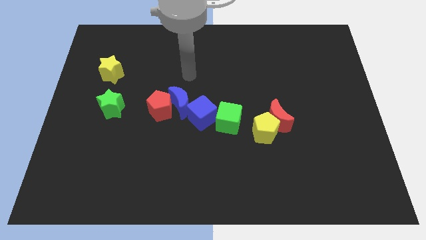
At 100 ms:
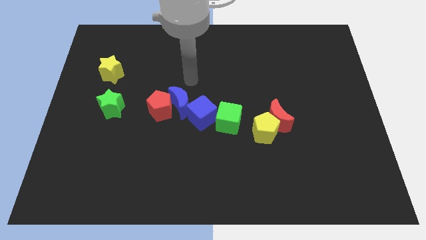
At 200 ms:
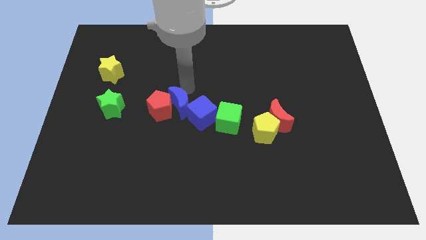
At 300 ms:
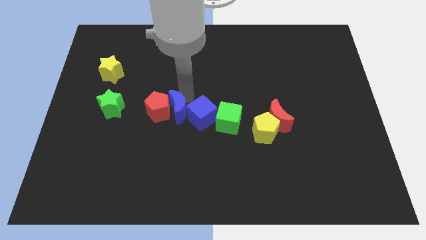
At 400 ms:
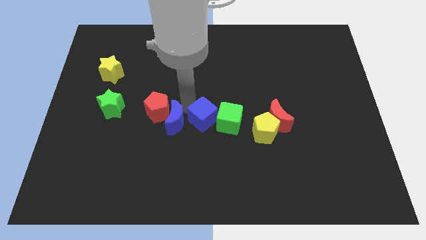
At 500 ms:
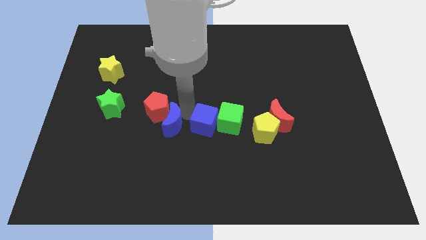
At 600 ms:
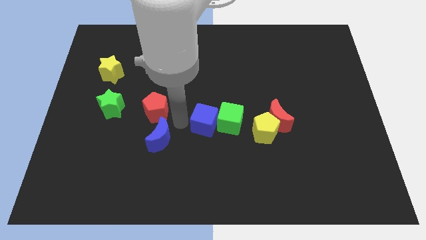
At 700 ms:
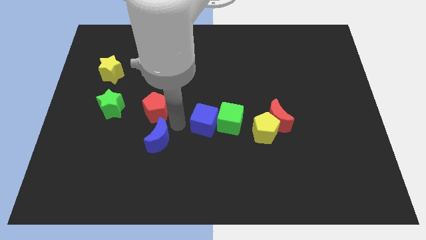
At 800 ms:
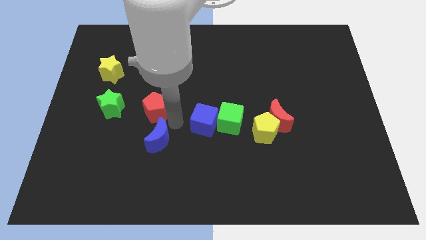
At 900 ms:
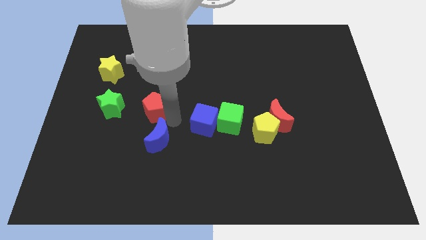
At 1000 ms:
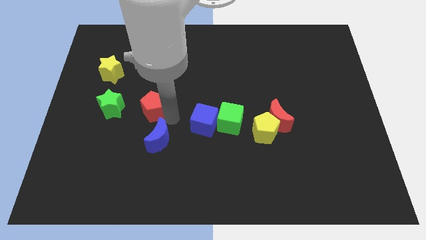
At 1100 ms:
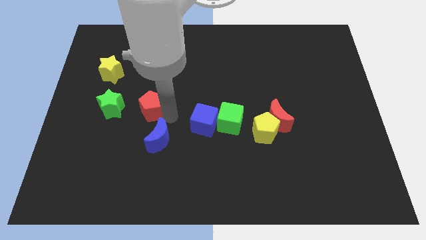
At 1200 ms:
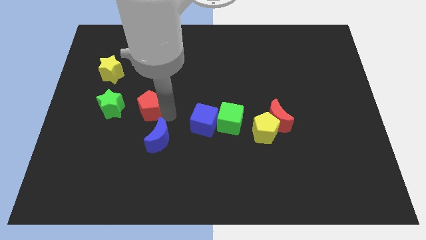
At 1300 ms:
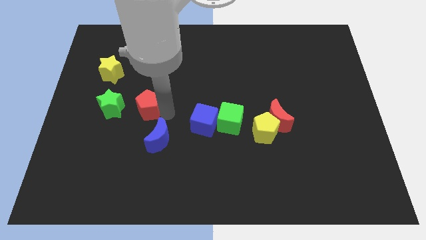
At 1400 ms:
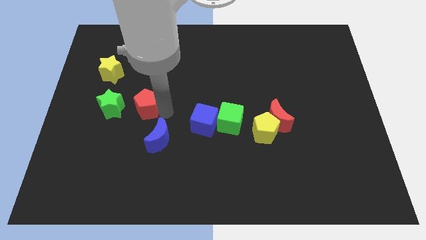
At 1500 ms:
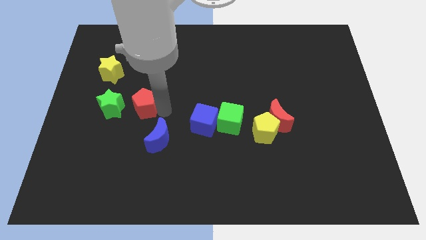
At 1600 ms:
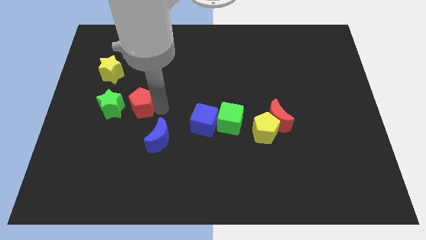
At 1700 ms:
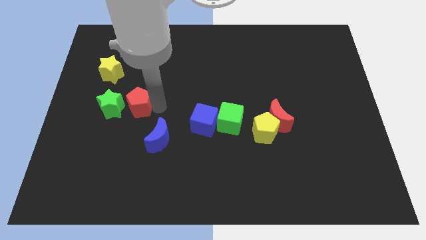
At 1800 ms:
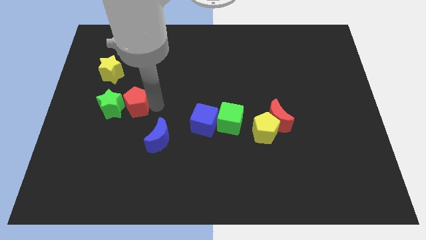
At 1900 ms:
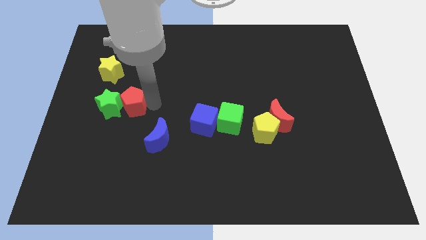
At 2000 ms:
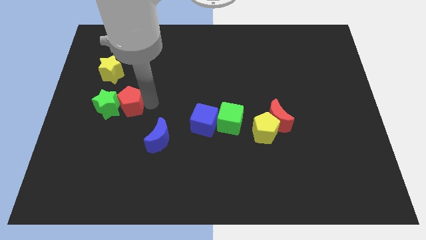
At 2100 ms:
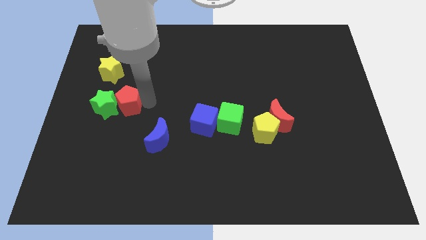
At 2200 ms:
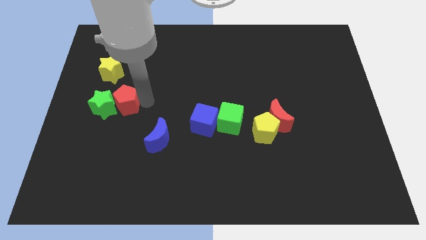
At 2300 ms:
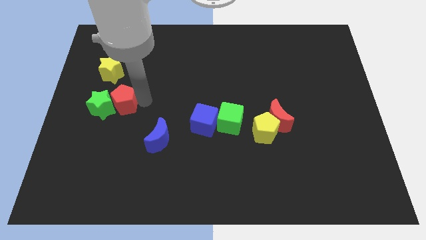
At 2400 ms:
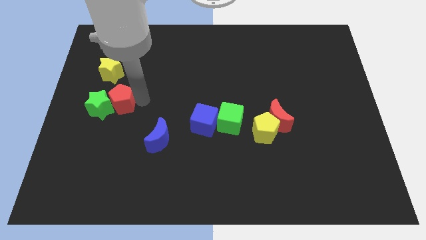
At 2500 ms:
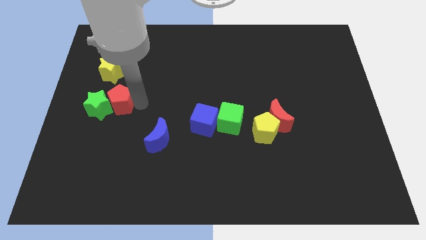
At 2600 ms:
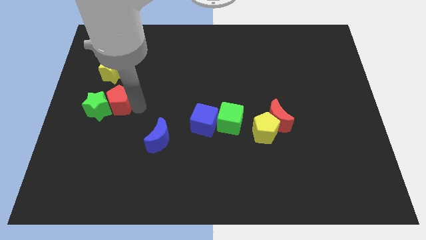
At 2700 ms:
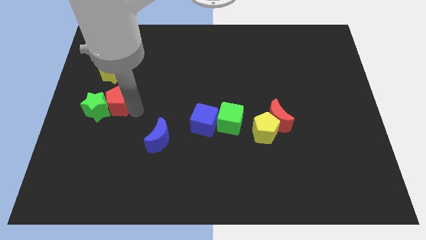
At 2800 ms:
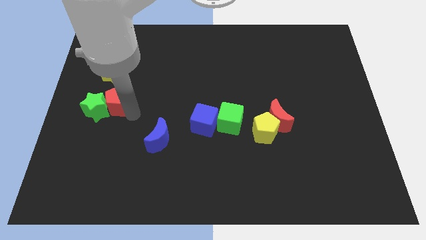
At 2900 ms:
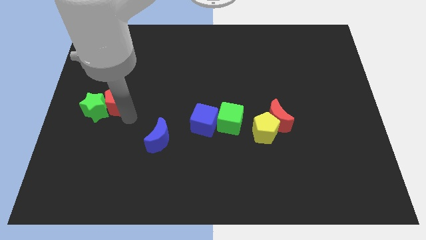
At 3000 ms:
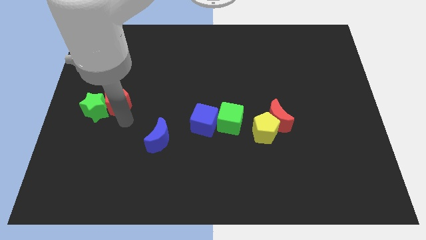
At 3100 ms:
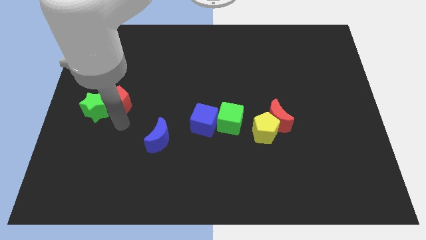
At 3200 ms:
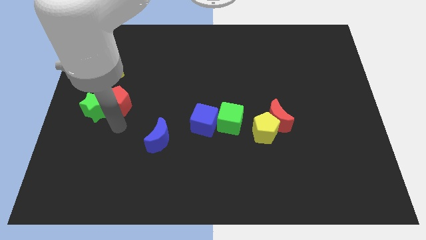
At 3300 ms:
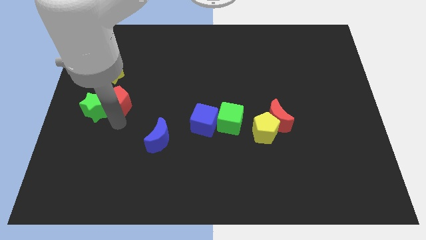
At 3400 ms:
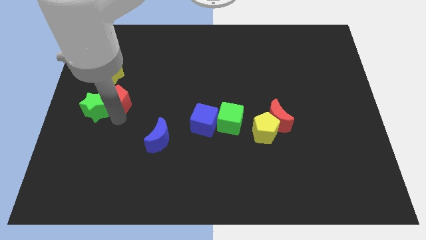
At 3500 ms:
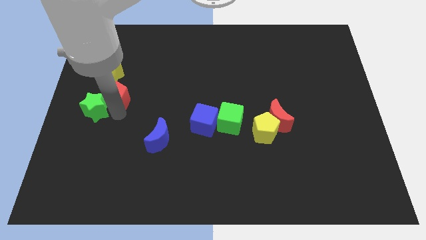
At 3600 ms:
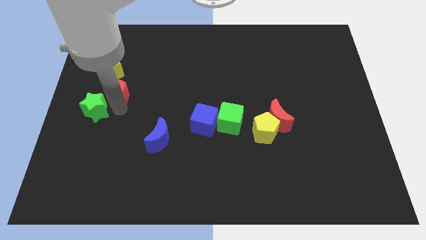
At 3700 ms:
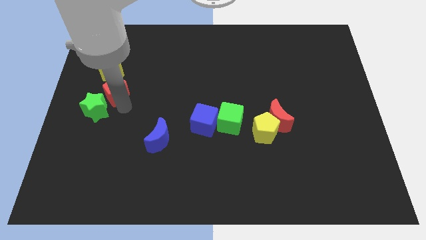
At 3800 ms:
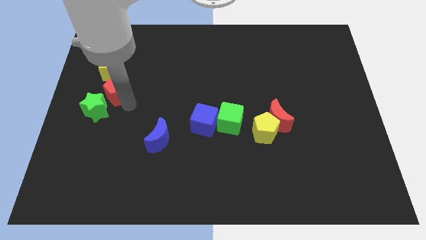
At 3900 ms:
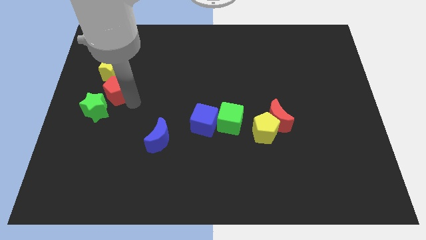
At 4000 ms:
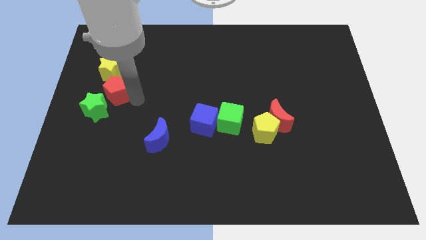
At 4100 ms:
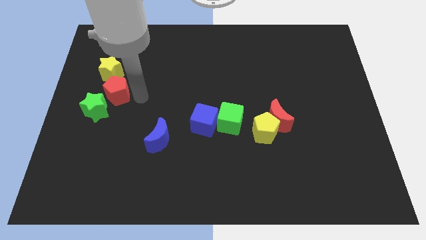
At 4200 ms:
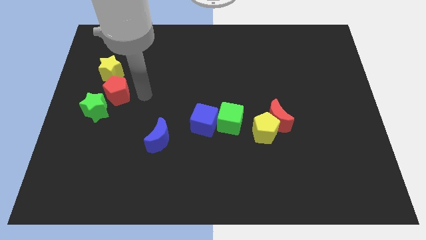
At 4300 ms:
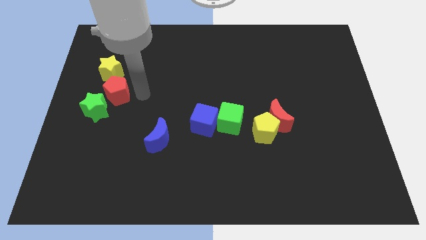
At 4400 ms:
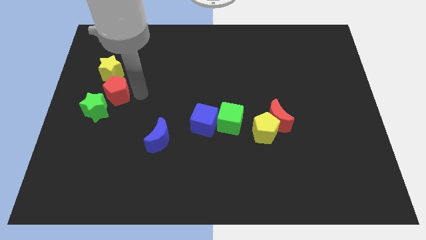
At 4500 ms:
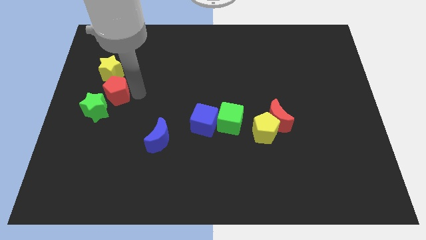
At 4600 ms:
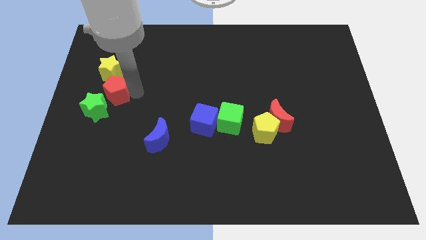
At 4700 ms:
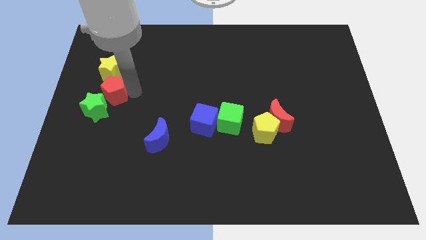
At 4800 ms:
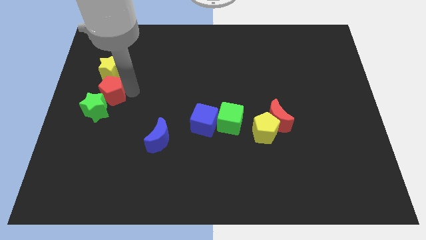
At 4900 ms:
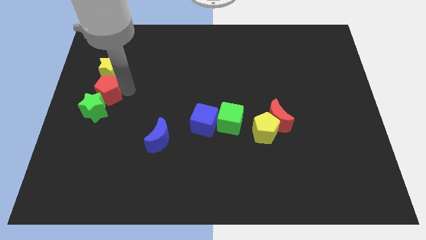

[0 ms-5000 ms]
put the red pentagon to the center left

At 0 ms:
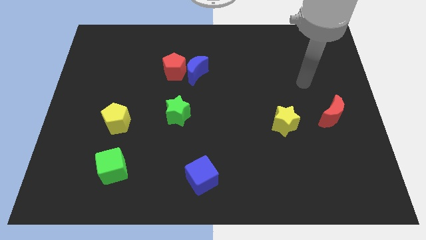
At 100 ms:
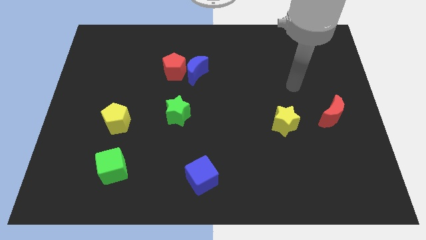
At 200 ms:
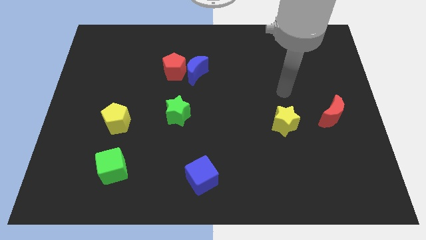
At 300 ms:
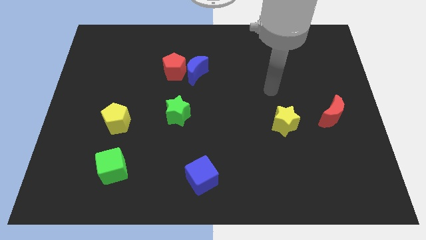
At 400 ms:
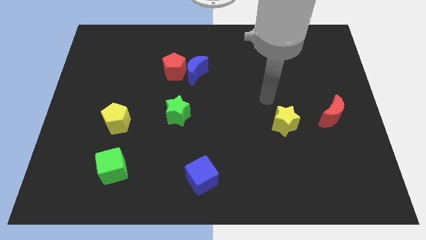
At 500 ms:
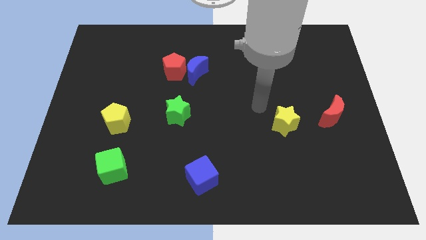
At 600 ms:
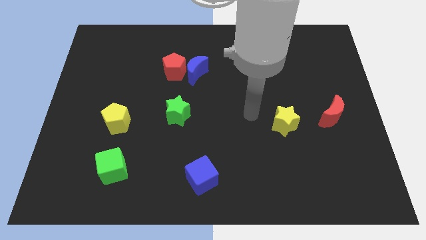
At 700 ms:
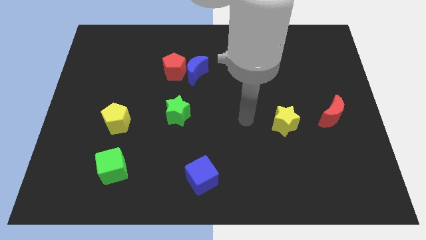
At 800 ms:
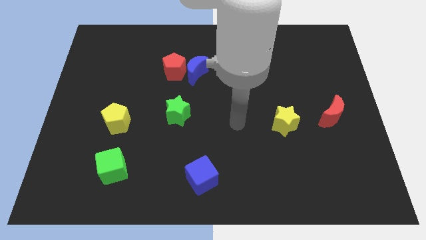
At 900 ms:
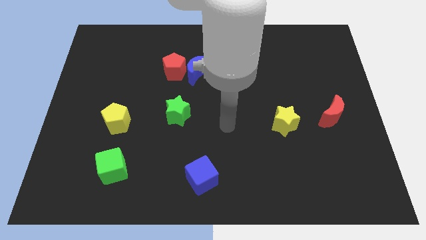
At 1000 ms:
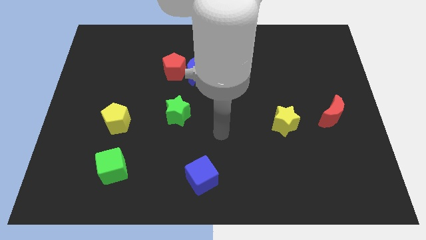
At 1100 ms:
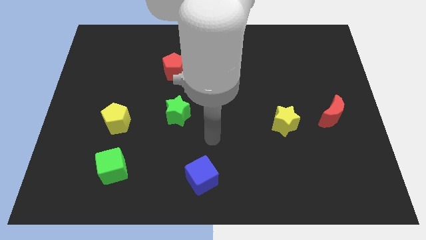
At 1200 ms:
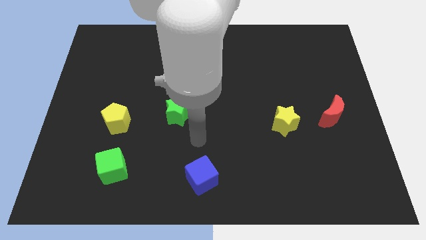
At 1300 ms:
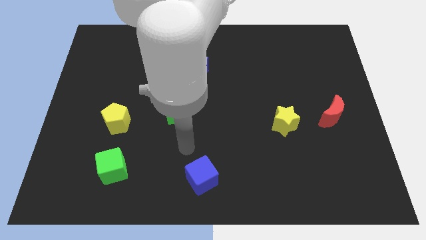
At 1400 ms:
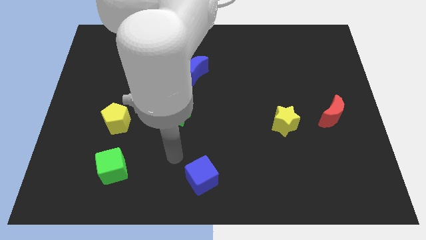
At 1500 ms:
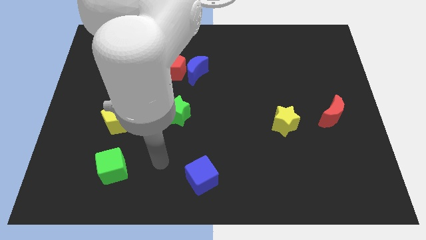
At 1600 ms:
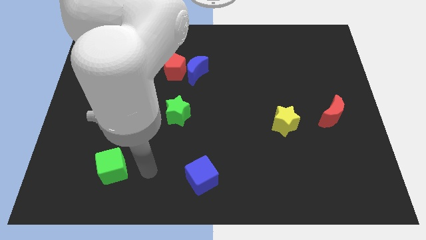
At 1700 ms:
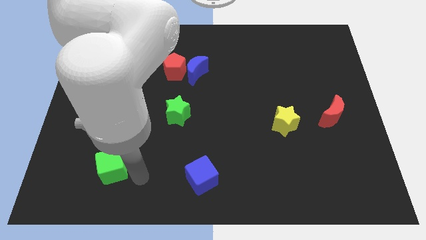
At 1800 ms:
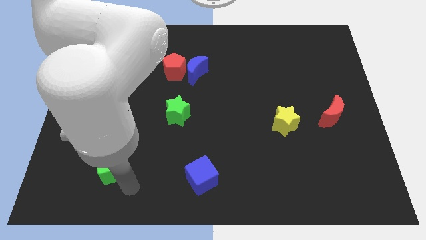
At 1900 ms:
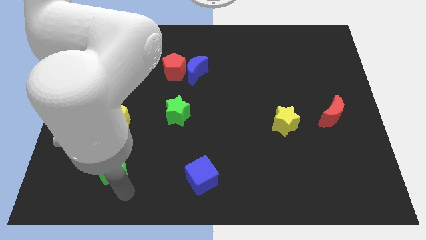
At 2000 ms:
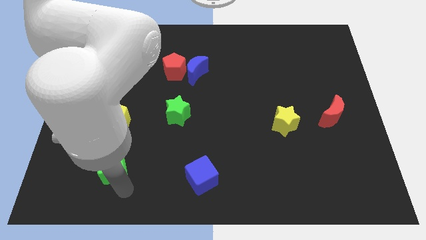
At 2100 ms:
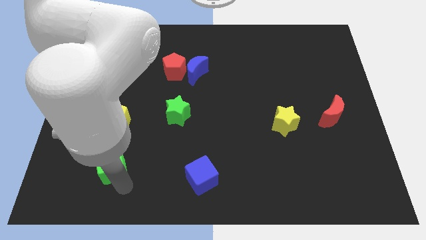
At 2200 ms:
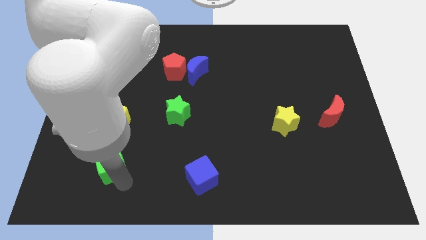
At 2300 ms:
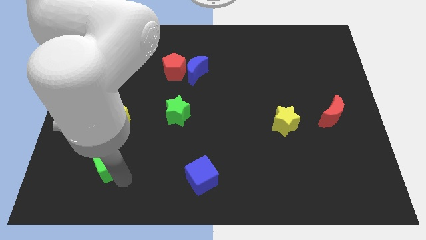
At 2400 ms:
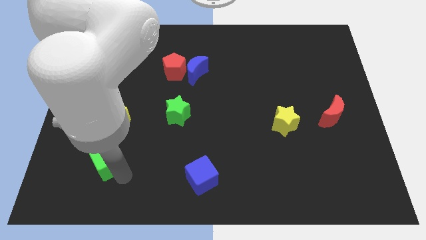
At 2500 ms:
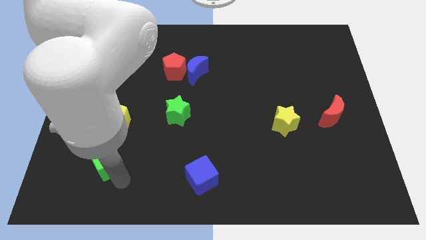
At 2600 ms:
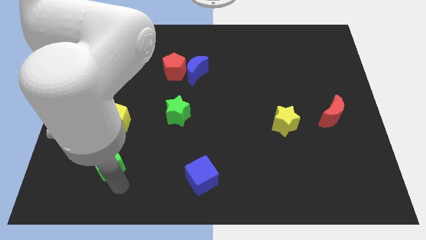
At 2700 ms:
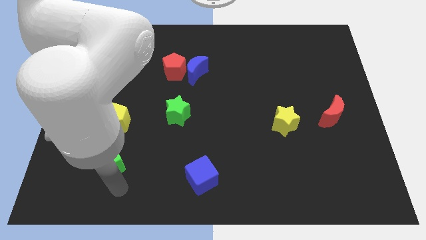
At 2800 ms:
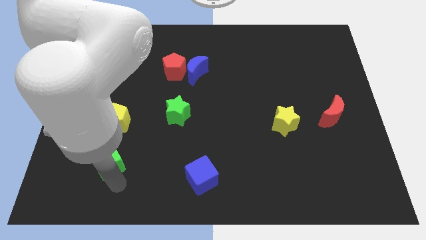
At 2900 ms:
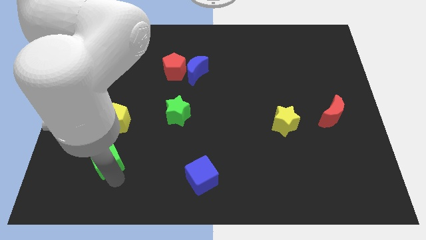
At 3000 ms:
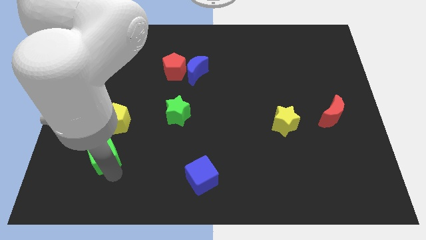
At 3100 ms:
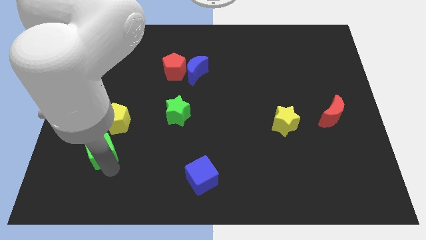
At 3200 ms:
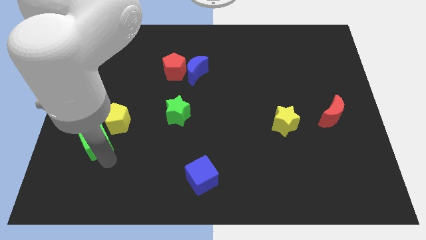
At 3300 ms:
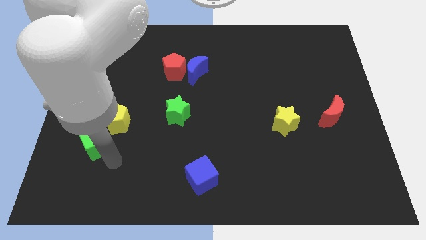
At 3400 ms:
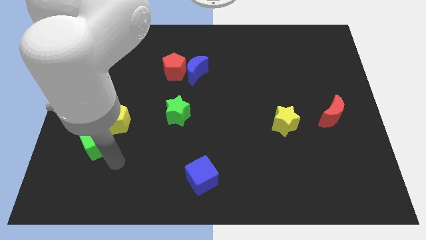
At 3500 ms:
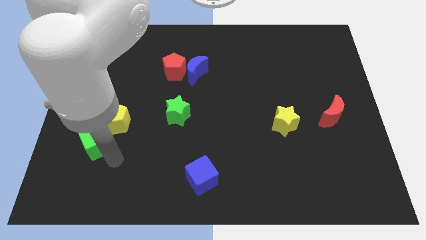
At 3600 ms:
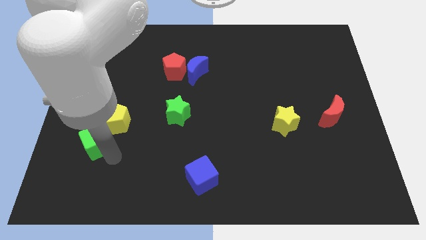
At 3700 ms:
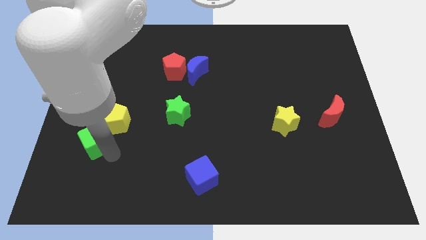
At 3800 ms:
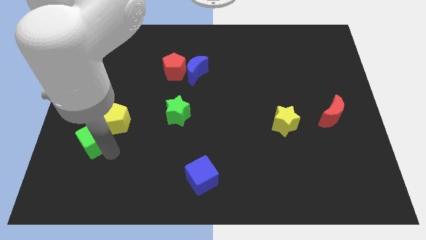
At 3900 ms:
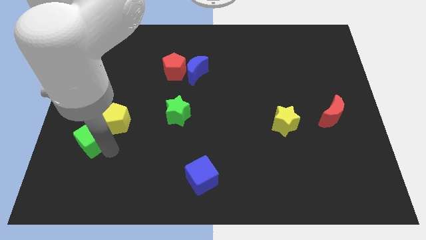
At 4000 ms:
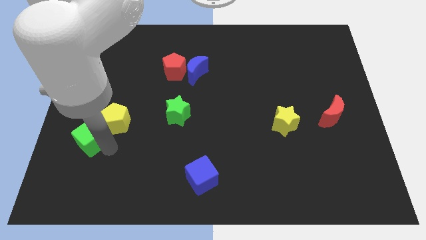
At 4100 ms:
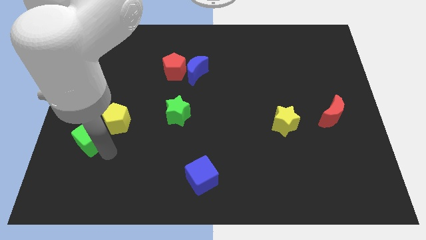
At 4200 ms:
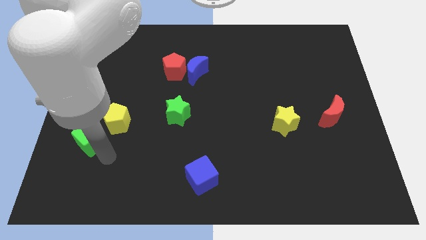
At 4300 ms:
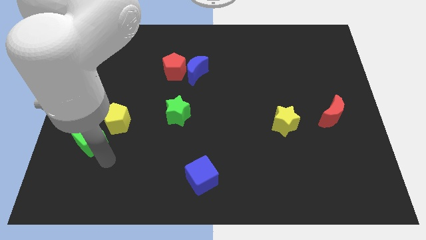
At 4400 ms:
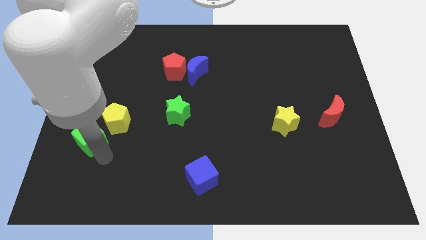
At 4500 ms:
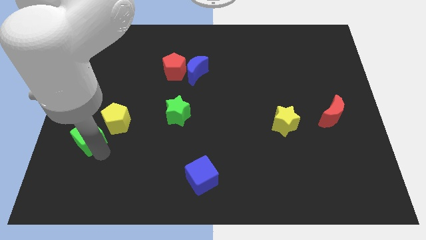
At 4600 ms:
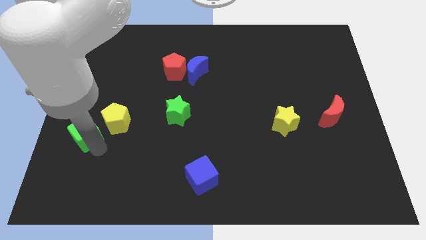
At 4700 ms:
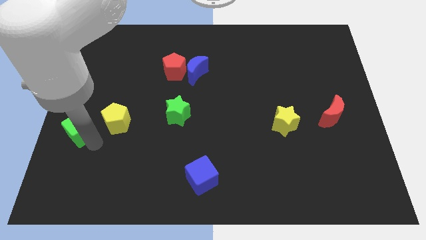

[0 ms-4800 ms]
slide the green cube to the left side of the board
